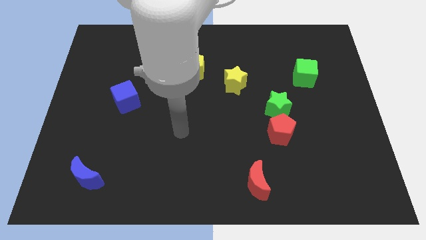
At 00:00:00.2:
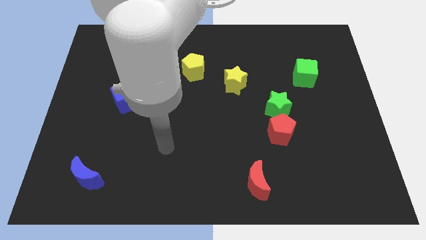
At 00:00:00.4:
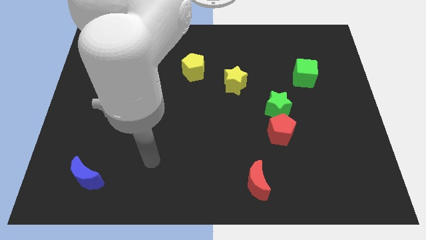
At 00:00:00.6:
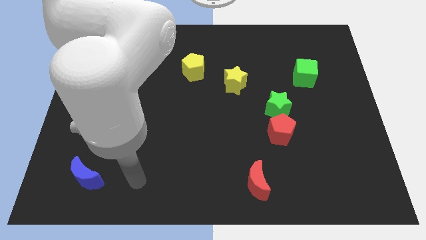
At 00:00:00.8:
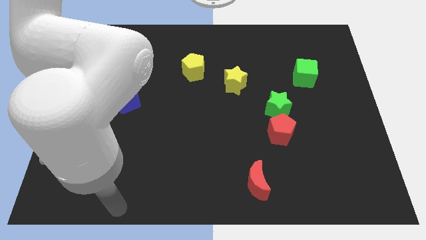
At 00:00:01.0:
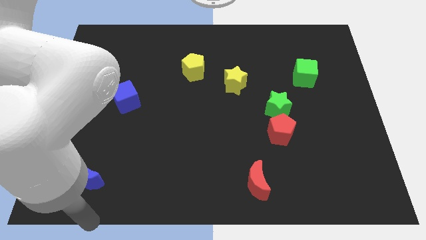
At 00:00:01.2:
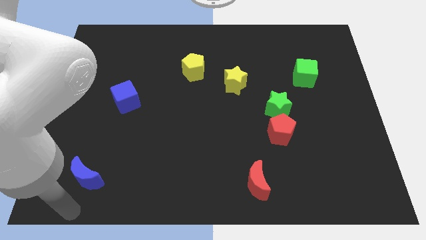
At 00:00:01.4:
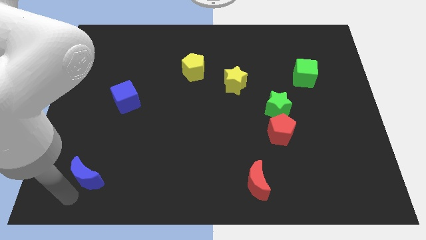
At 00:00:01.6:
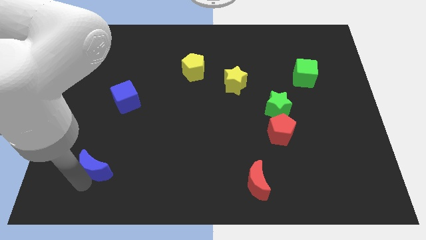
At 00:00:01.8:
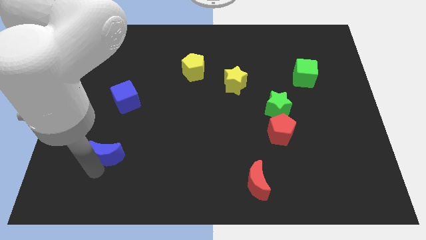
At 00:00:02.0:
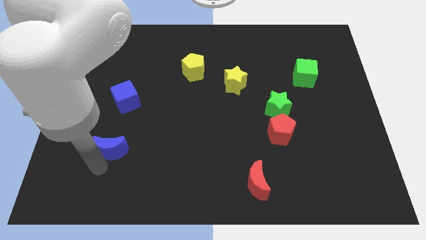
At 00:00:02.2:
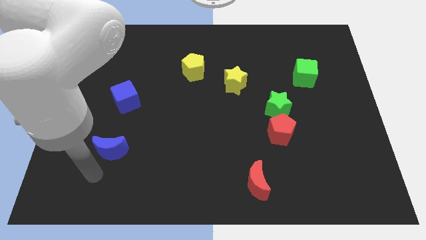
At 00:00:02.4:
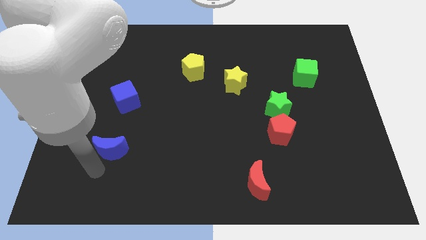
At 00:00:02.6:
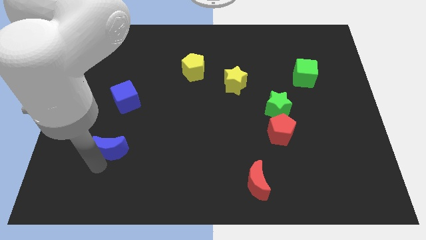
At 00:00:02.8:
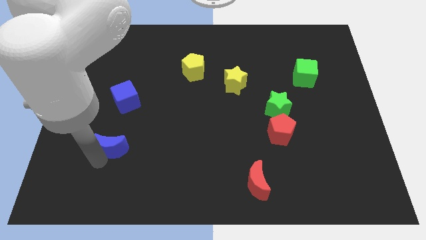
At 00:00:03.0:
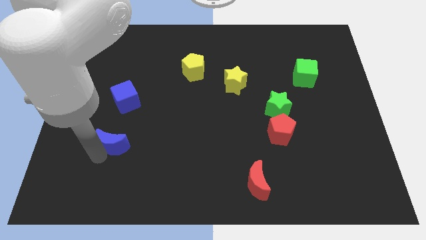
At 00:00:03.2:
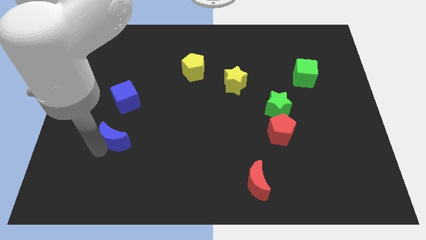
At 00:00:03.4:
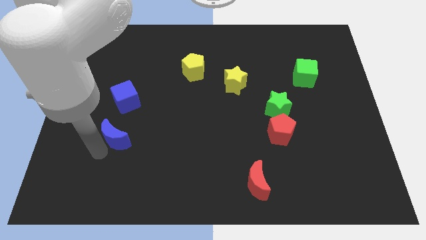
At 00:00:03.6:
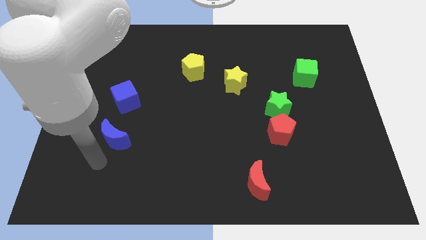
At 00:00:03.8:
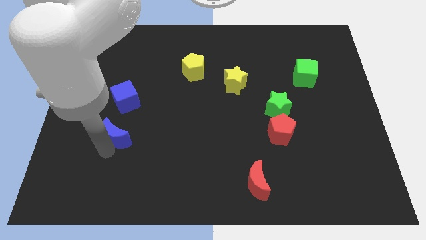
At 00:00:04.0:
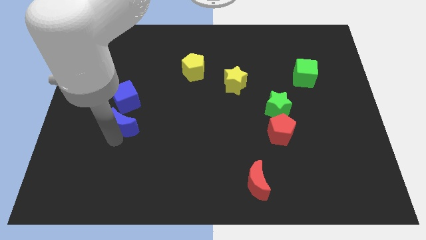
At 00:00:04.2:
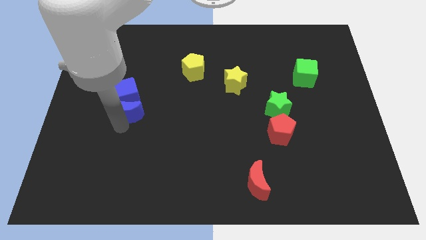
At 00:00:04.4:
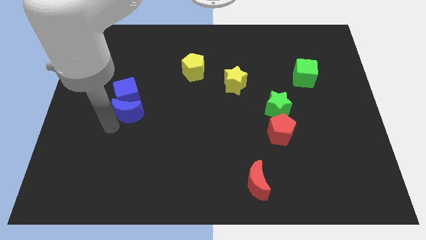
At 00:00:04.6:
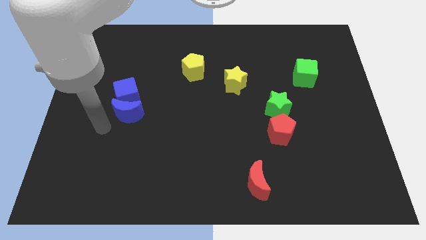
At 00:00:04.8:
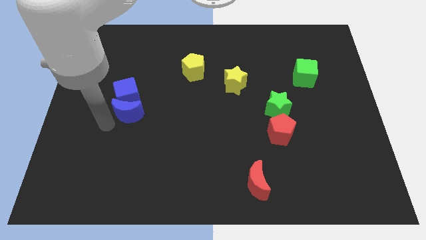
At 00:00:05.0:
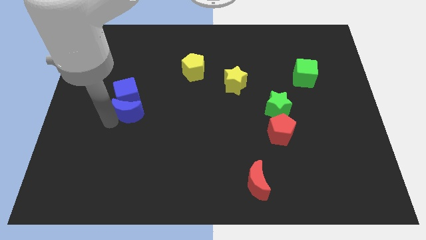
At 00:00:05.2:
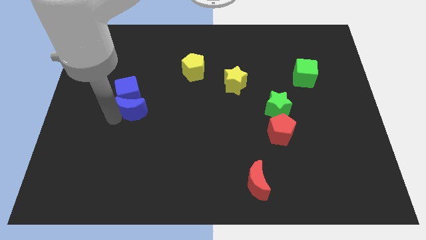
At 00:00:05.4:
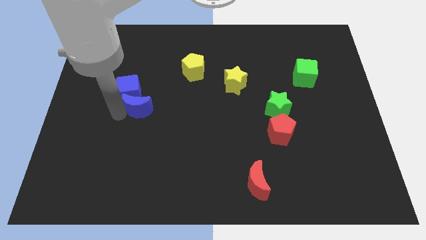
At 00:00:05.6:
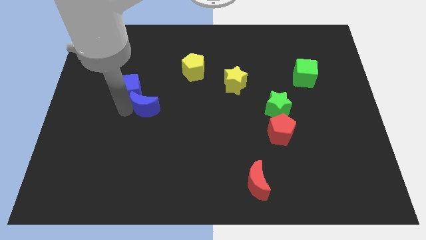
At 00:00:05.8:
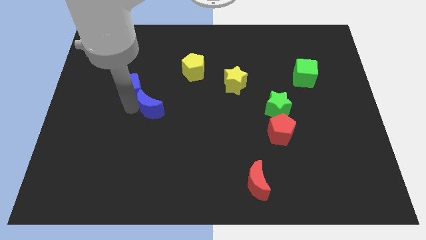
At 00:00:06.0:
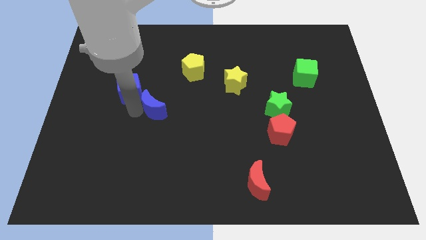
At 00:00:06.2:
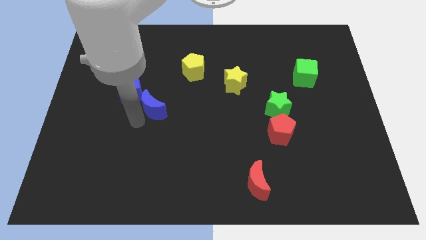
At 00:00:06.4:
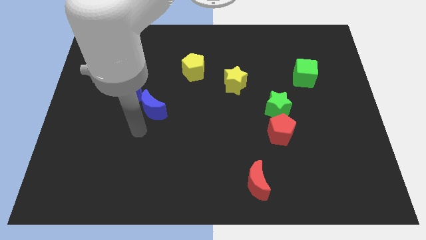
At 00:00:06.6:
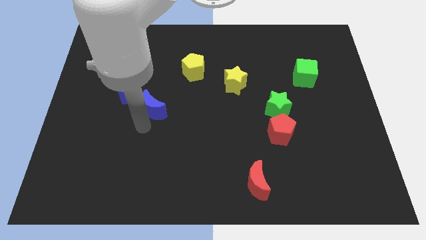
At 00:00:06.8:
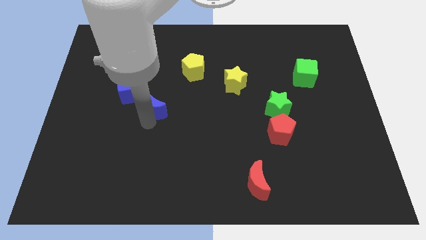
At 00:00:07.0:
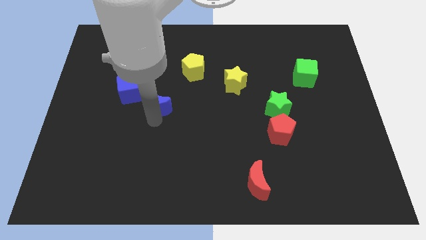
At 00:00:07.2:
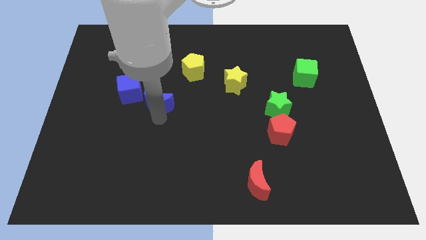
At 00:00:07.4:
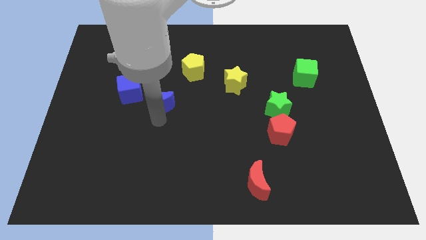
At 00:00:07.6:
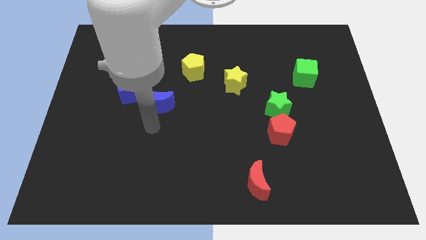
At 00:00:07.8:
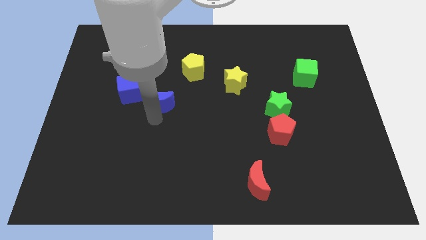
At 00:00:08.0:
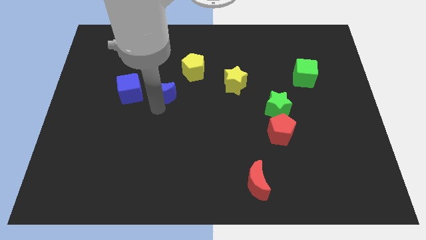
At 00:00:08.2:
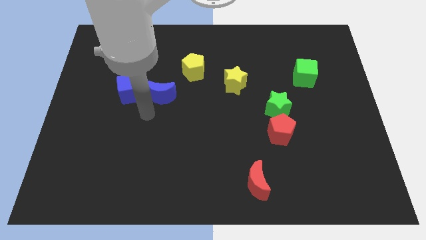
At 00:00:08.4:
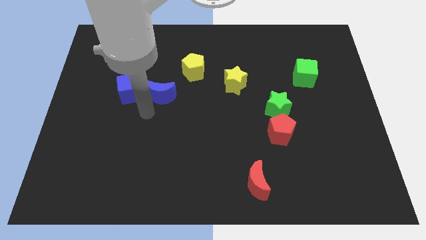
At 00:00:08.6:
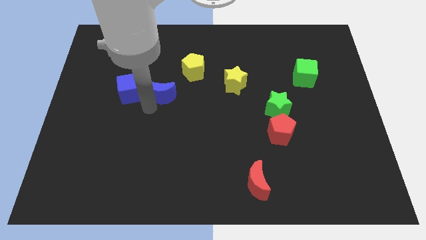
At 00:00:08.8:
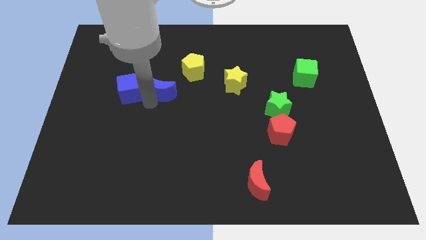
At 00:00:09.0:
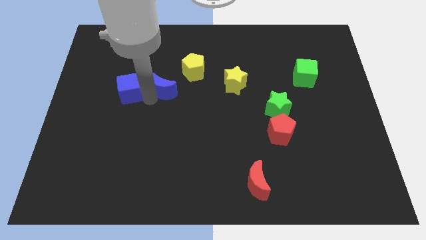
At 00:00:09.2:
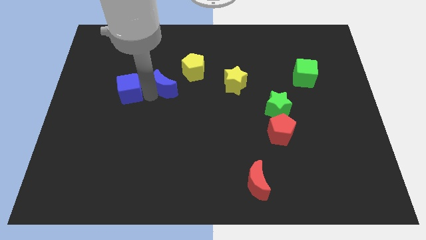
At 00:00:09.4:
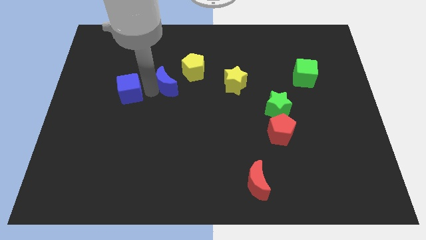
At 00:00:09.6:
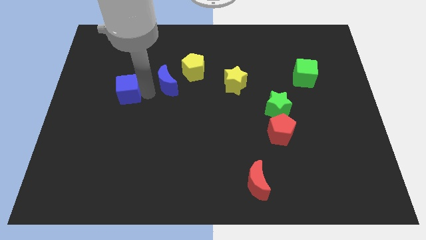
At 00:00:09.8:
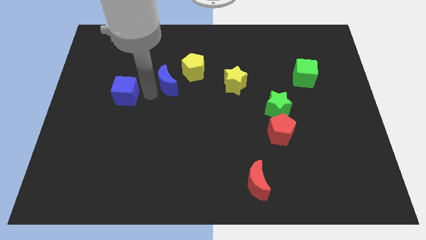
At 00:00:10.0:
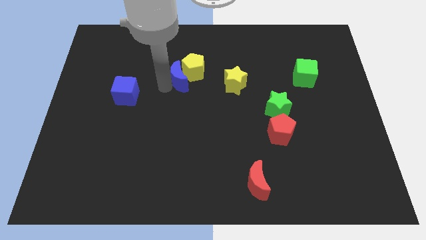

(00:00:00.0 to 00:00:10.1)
slide the blue moon towards the yellow pentagon

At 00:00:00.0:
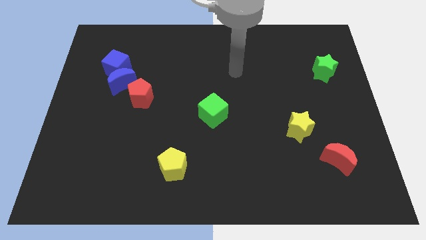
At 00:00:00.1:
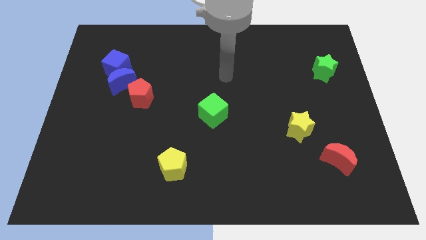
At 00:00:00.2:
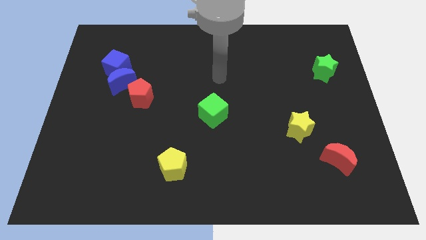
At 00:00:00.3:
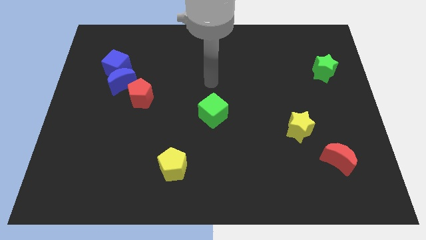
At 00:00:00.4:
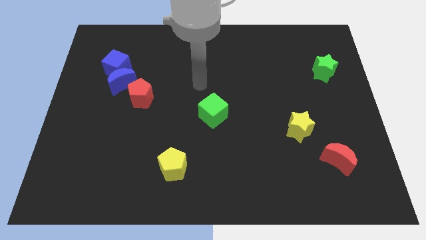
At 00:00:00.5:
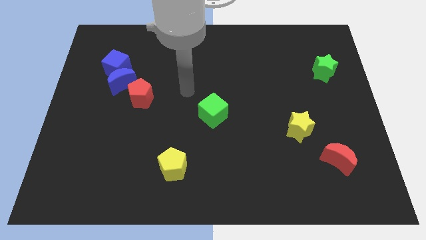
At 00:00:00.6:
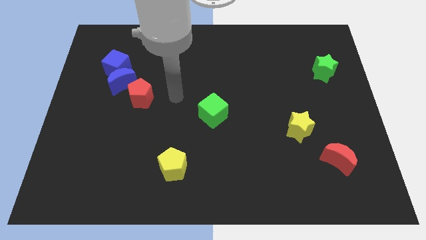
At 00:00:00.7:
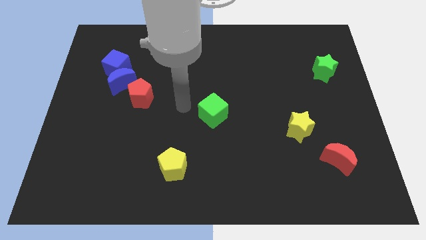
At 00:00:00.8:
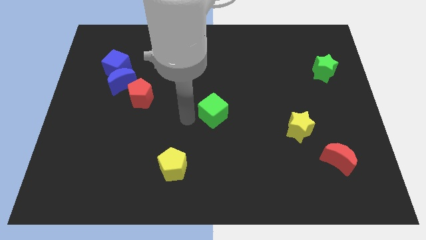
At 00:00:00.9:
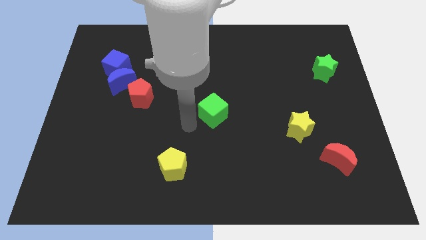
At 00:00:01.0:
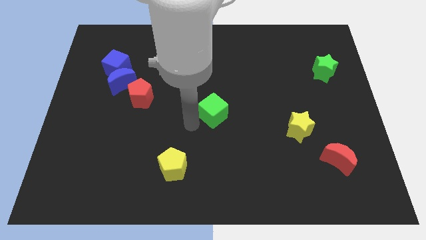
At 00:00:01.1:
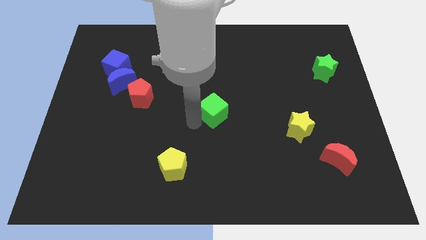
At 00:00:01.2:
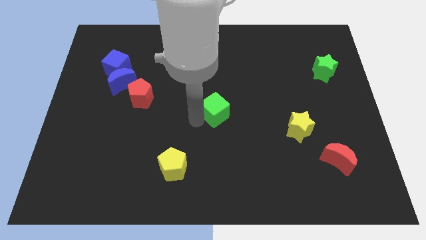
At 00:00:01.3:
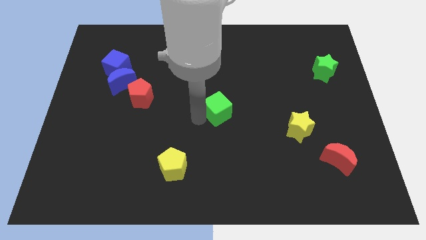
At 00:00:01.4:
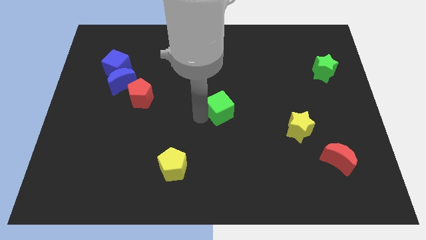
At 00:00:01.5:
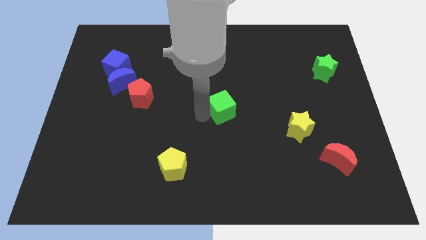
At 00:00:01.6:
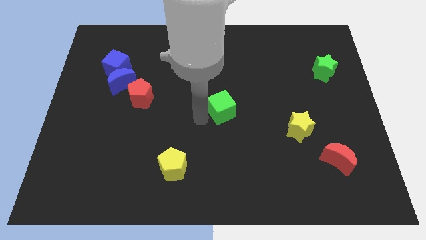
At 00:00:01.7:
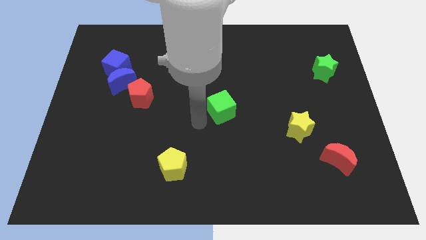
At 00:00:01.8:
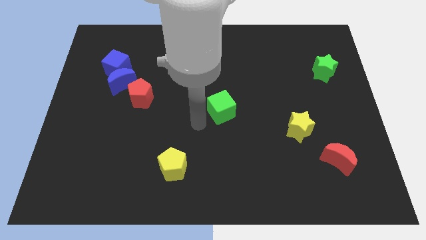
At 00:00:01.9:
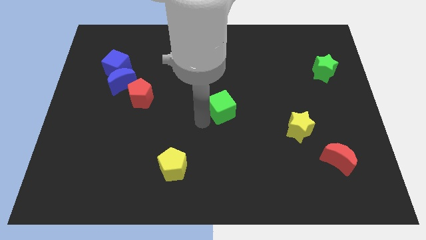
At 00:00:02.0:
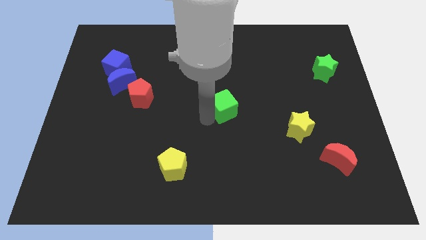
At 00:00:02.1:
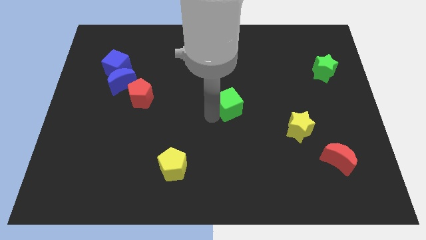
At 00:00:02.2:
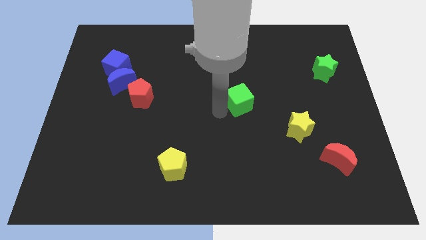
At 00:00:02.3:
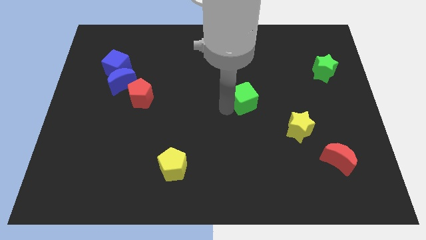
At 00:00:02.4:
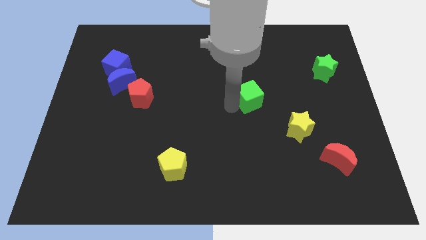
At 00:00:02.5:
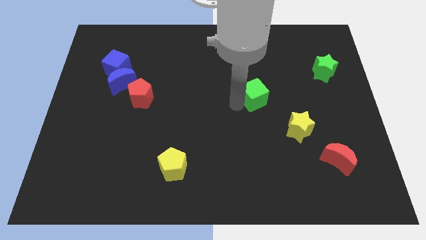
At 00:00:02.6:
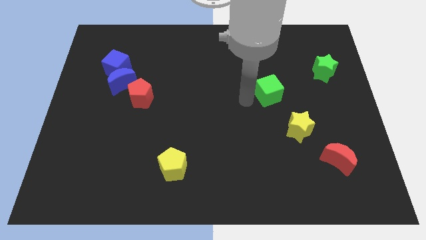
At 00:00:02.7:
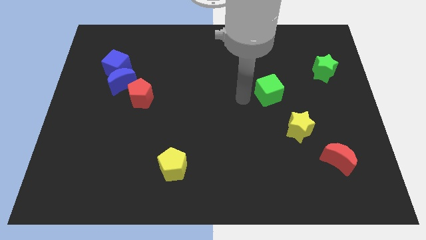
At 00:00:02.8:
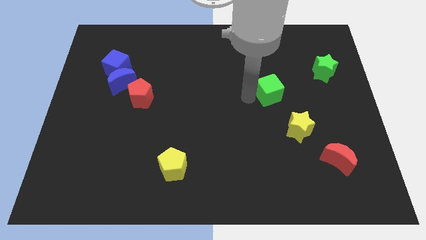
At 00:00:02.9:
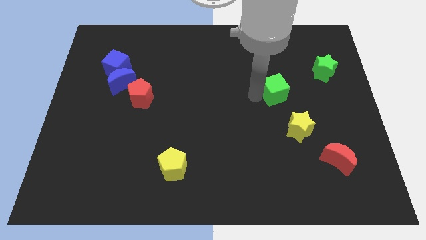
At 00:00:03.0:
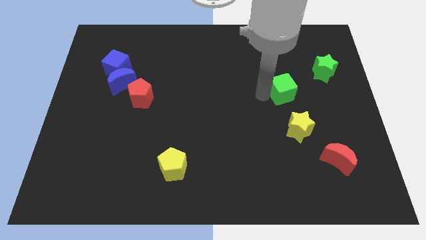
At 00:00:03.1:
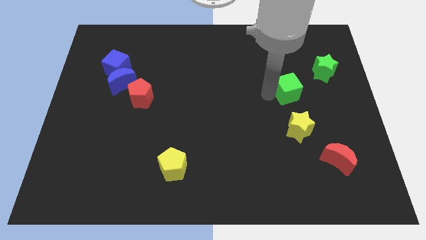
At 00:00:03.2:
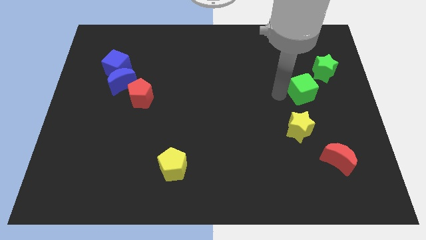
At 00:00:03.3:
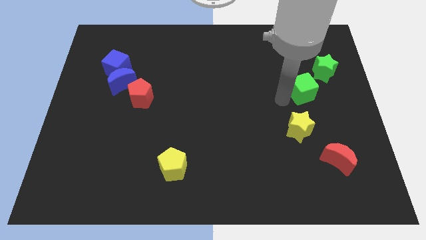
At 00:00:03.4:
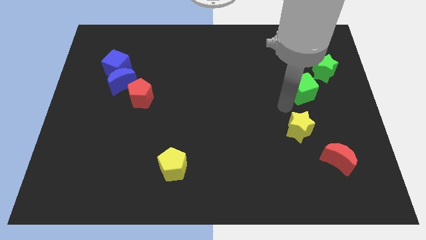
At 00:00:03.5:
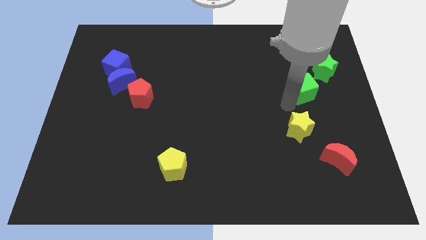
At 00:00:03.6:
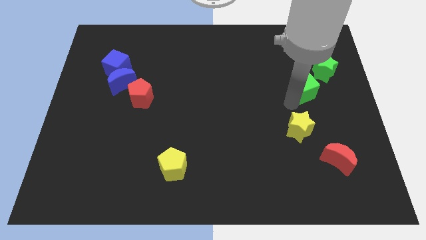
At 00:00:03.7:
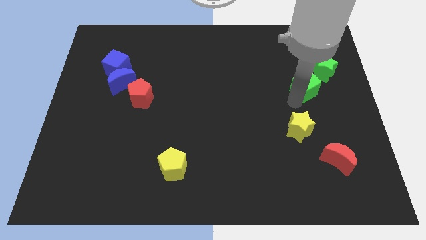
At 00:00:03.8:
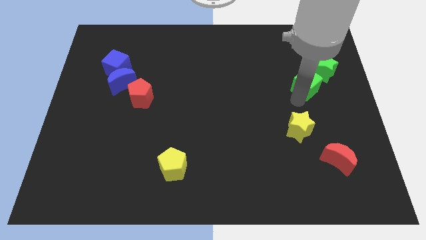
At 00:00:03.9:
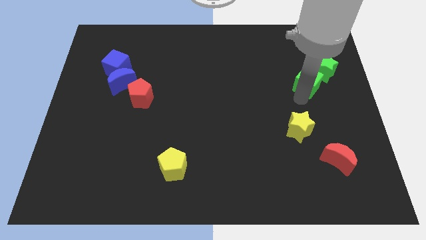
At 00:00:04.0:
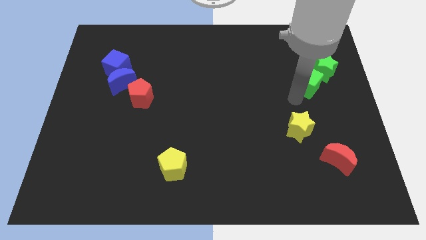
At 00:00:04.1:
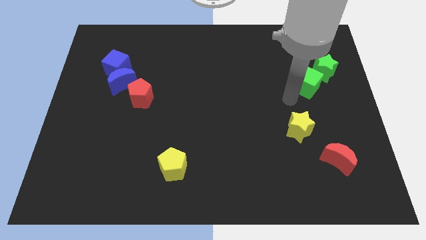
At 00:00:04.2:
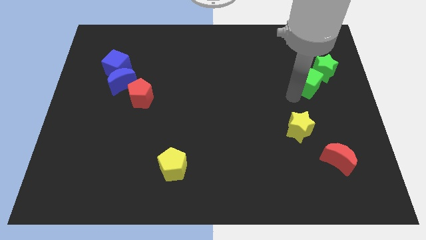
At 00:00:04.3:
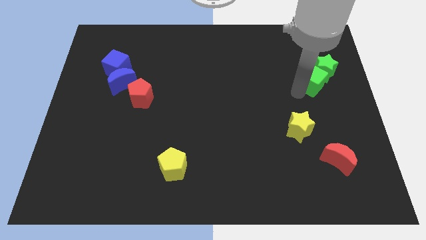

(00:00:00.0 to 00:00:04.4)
slide the green cube close to the green star
